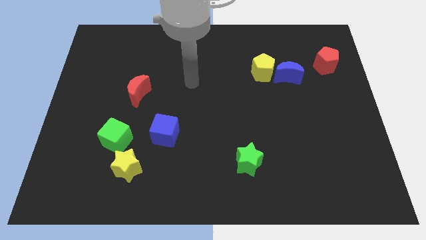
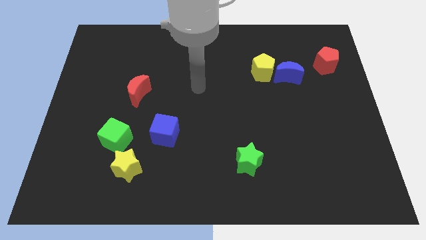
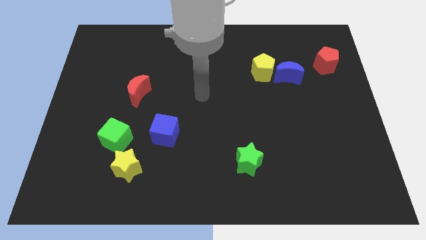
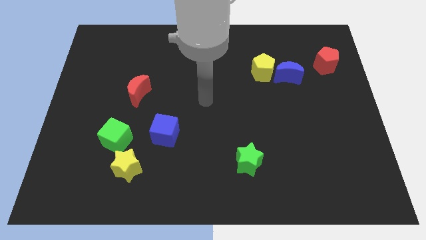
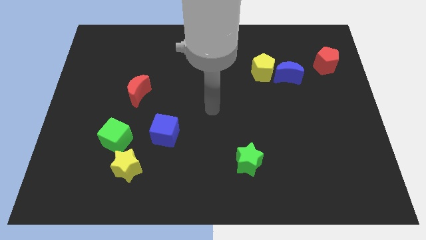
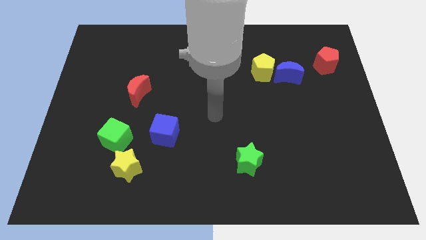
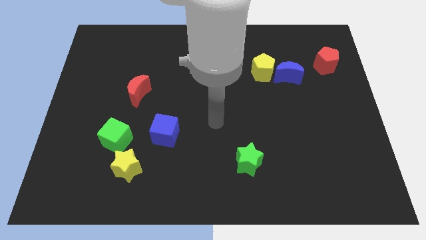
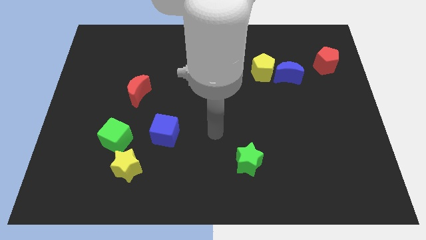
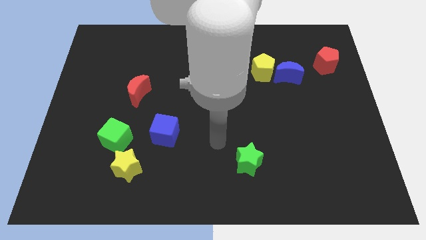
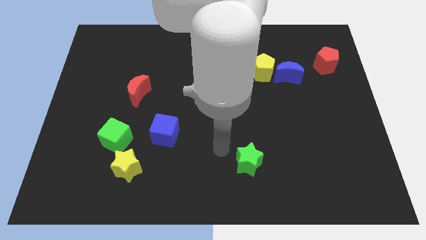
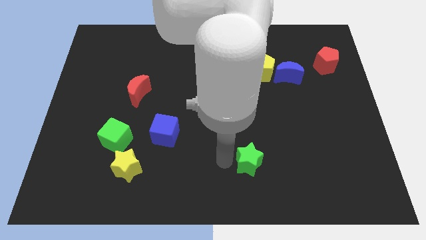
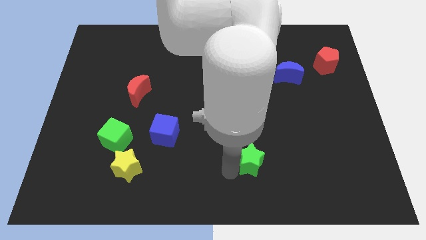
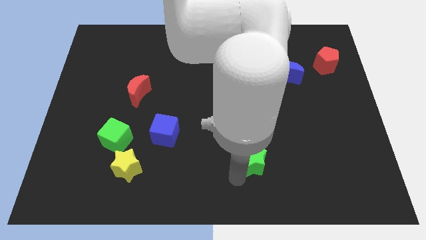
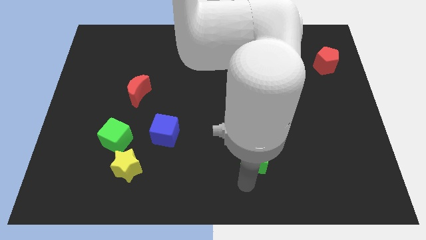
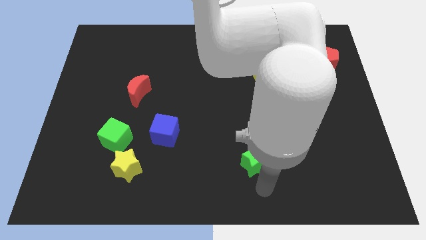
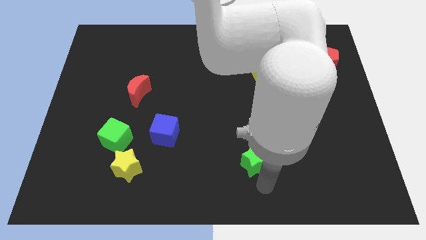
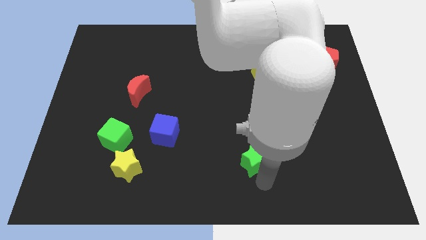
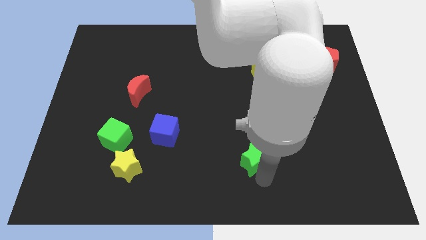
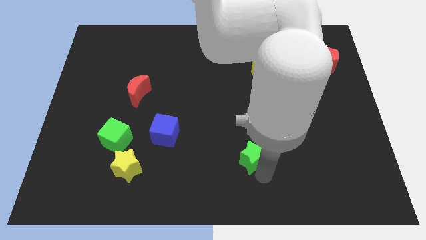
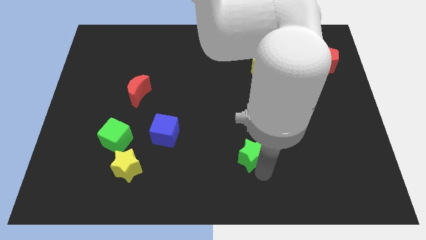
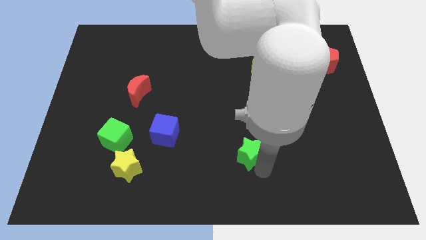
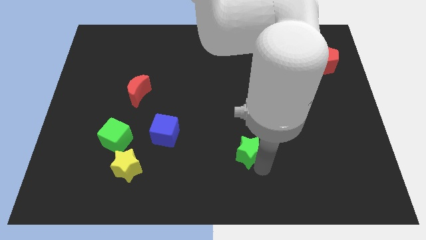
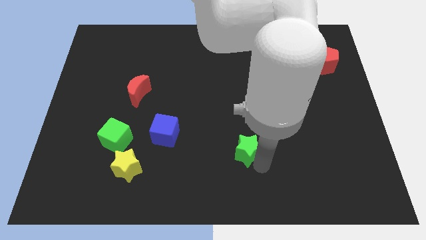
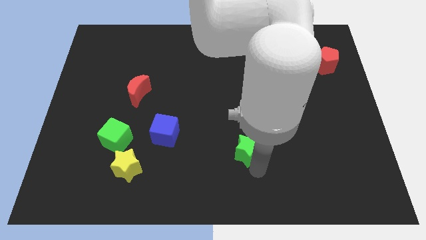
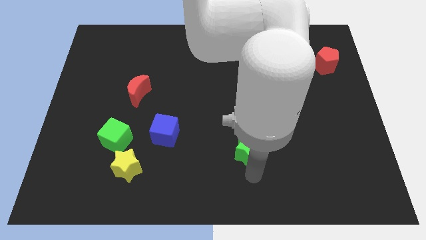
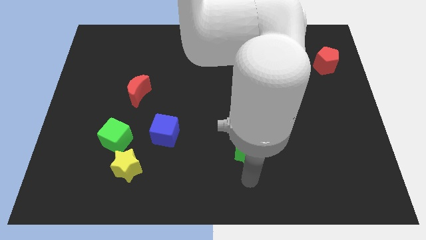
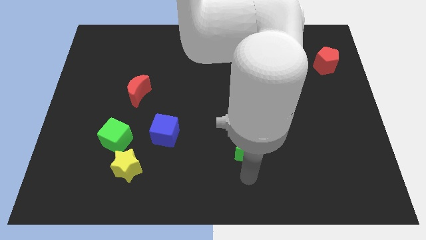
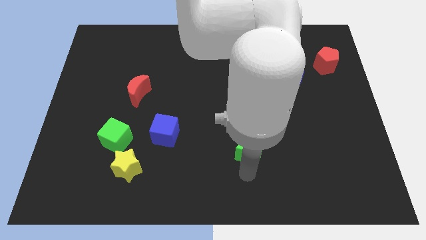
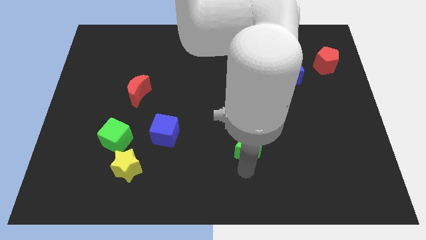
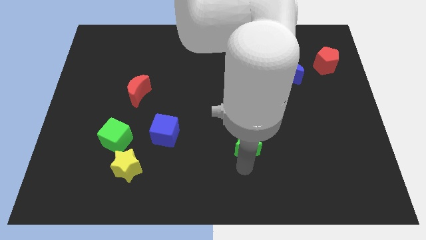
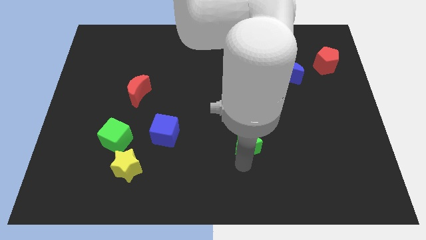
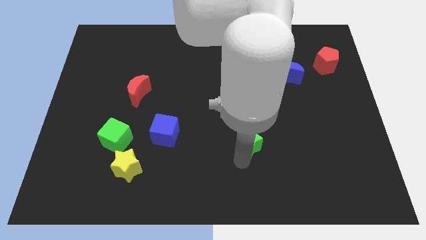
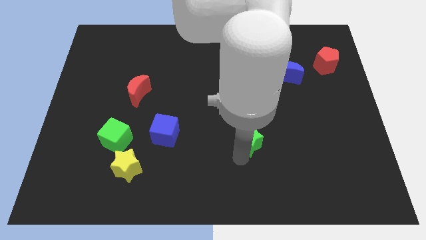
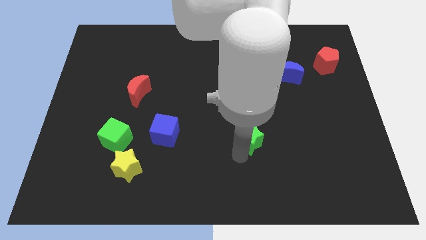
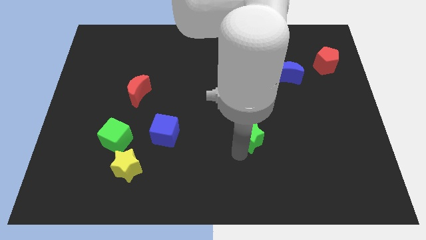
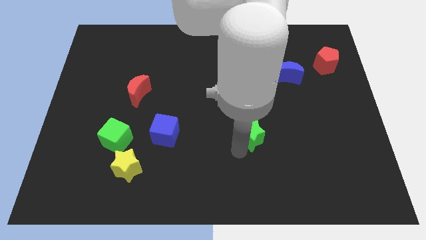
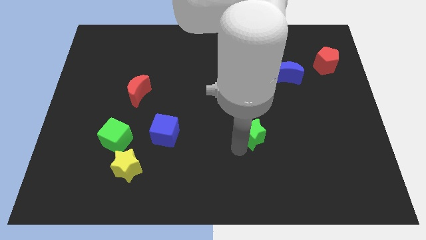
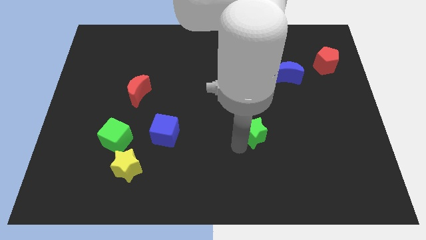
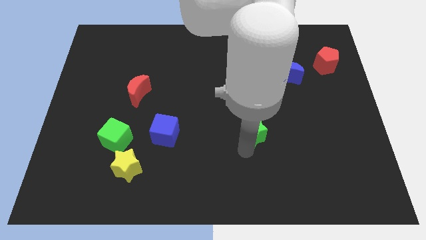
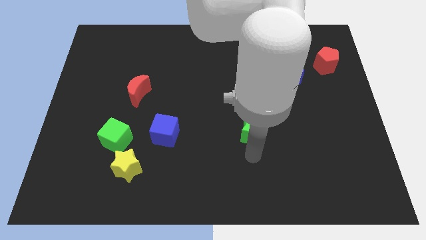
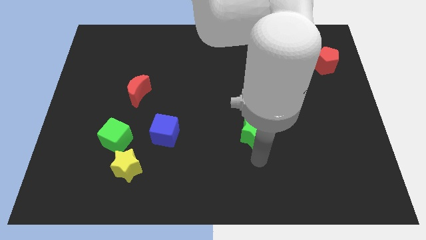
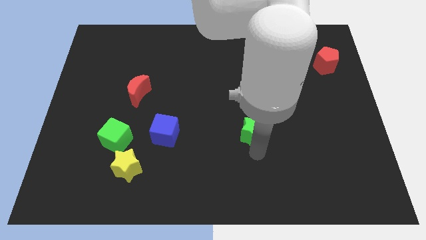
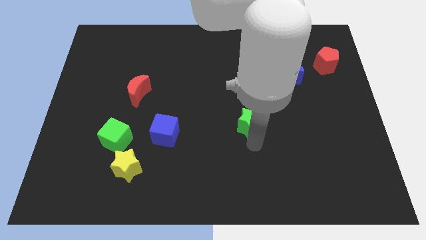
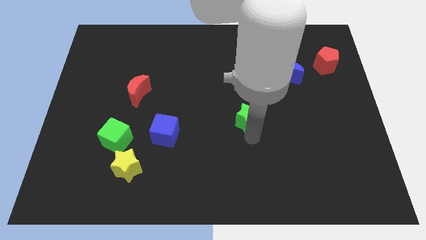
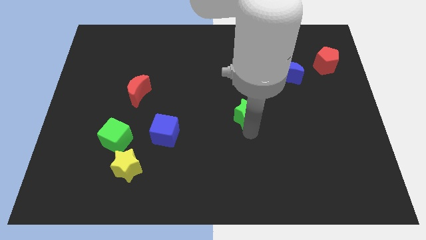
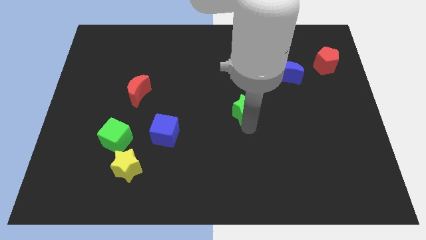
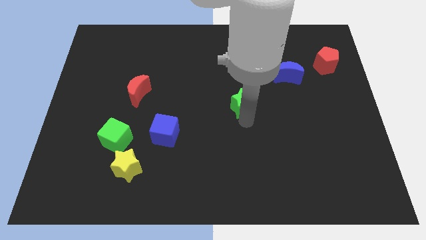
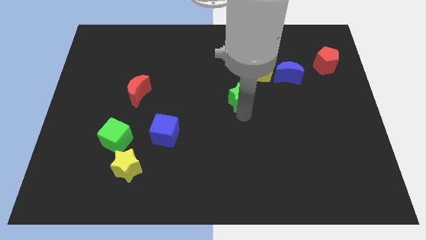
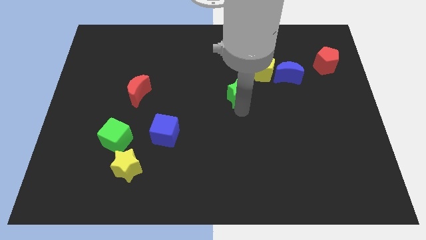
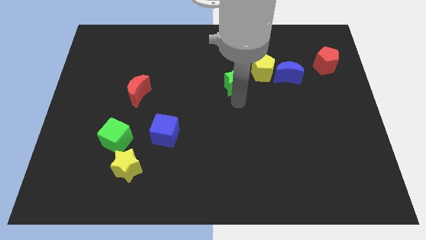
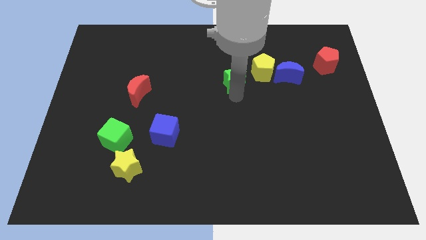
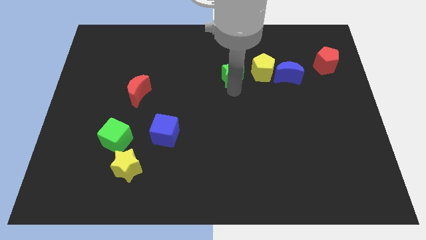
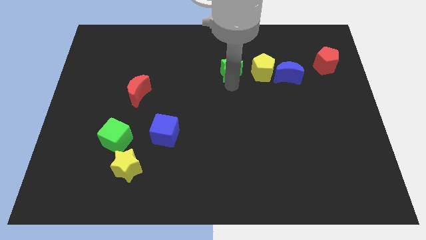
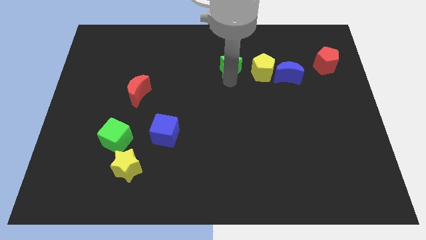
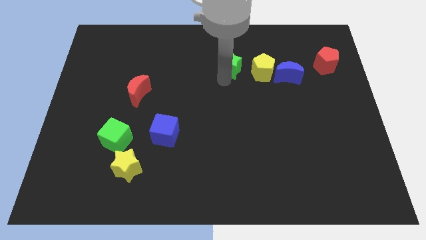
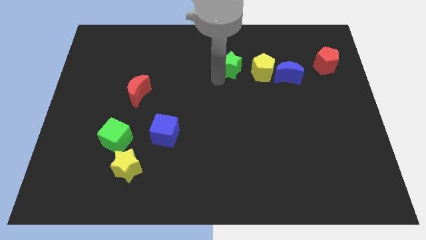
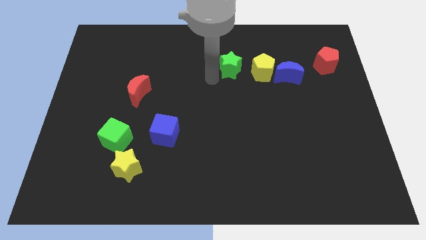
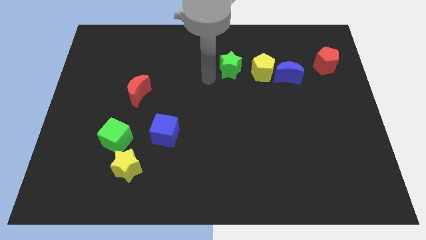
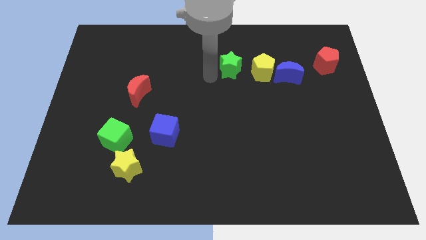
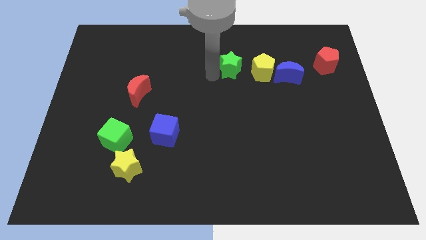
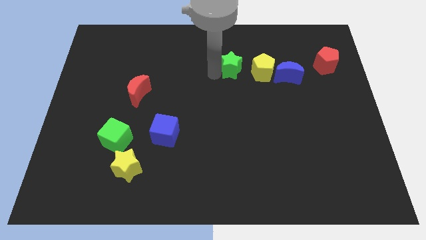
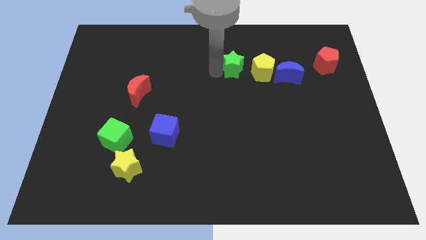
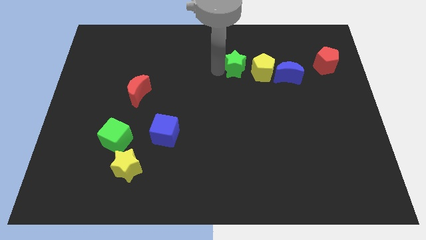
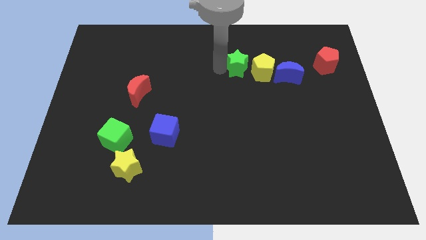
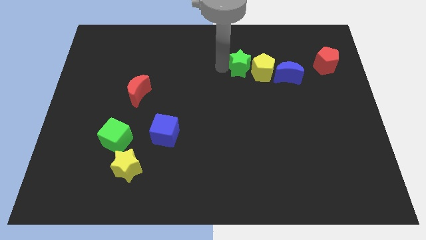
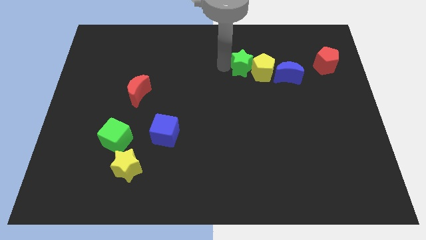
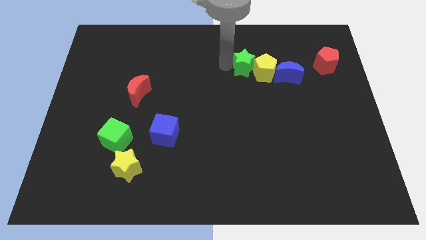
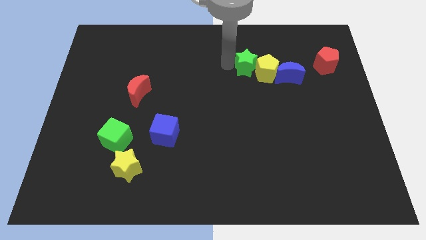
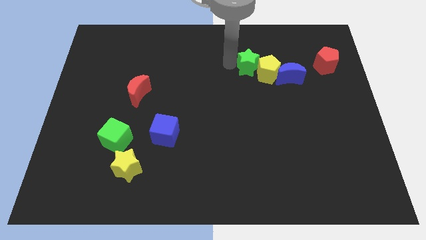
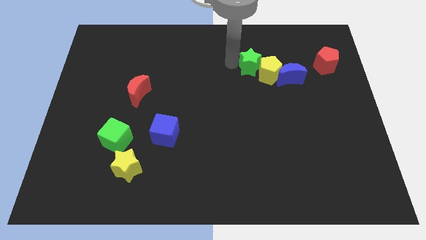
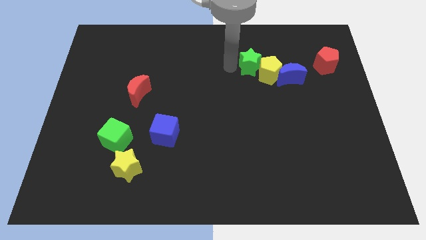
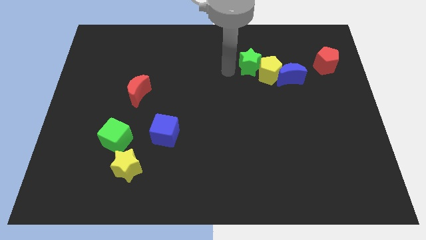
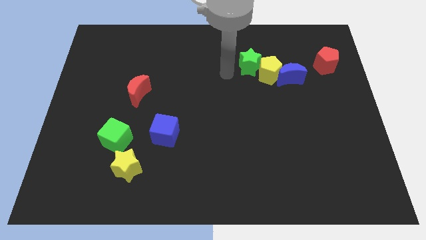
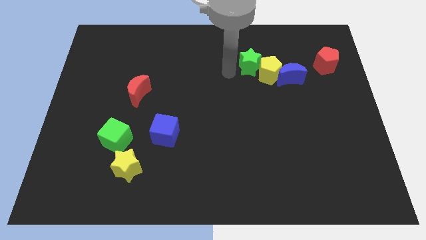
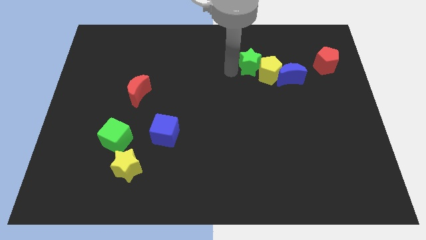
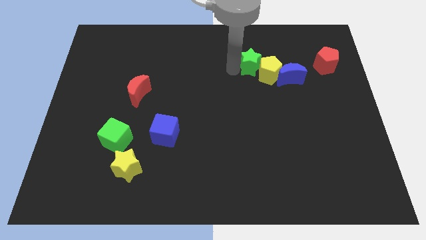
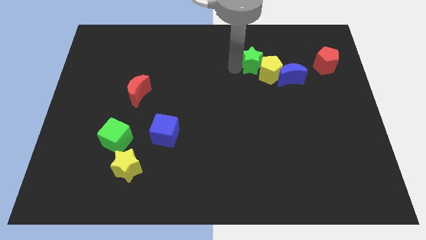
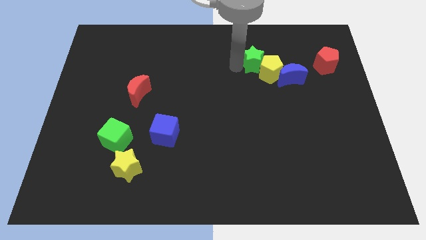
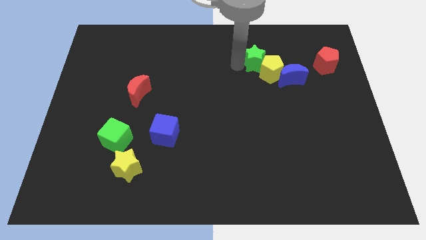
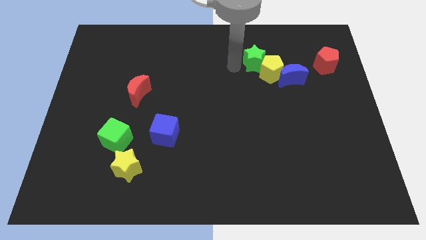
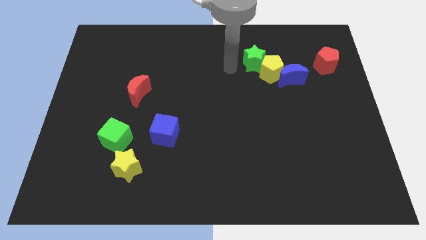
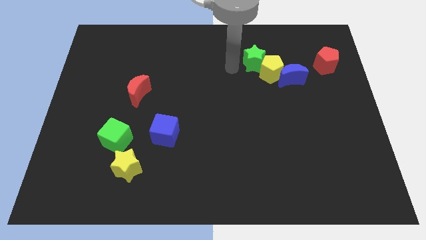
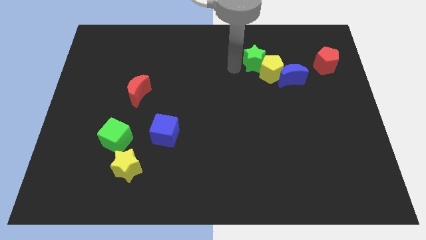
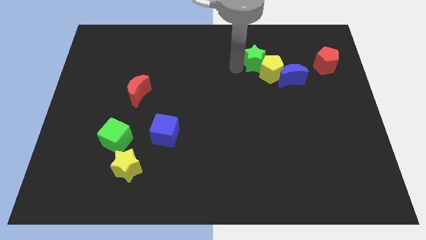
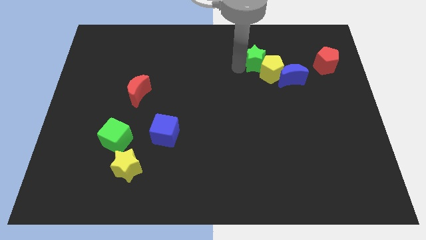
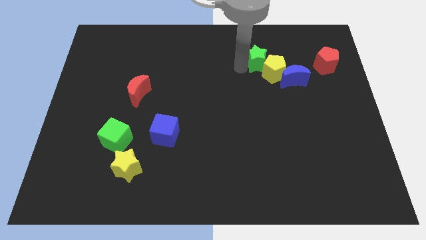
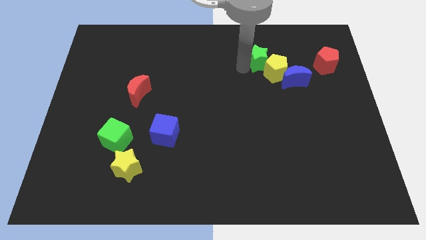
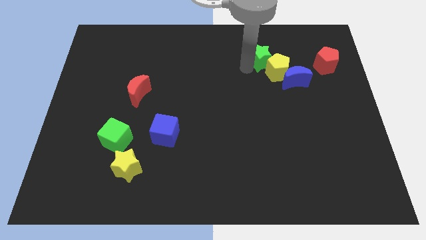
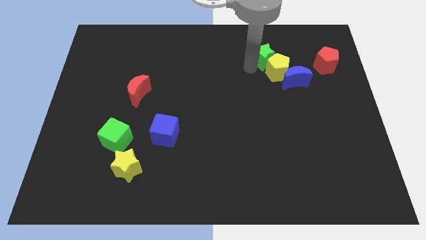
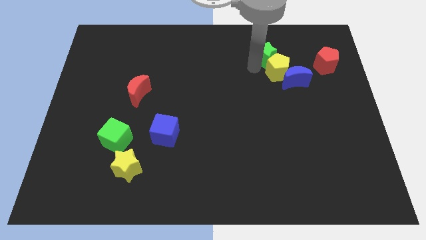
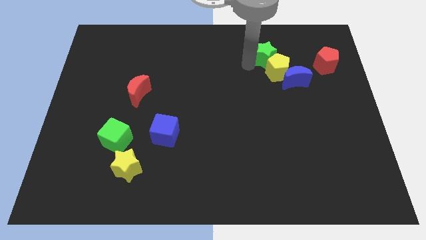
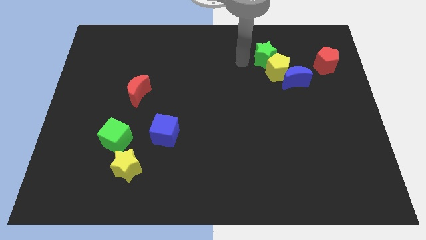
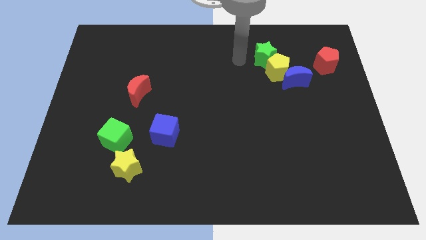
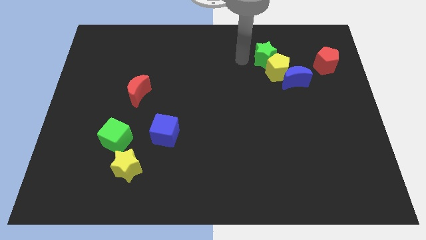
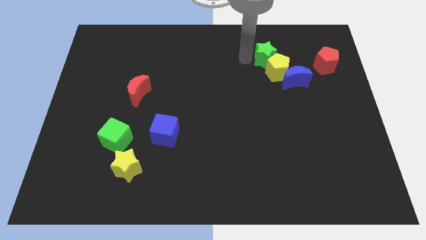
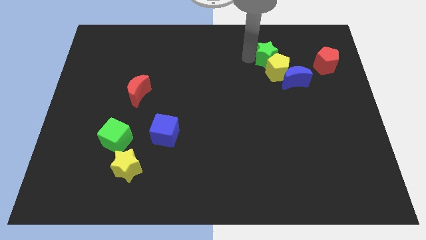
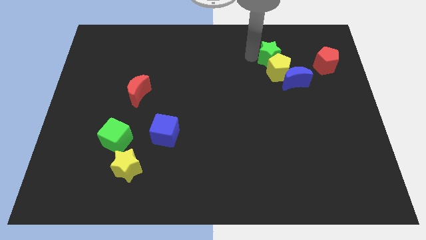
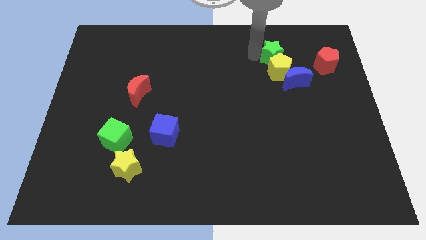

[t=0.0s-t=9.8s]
put the green star diagonally up and to the right of the yellow pentagon
